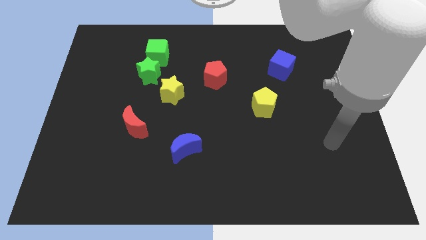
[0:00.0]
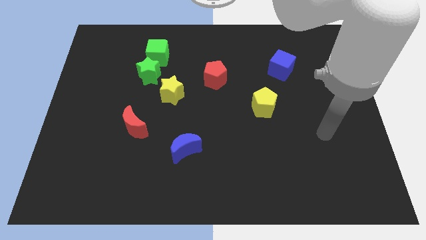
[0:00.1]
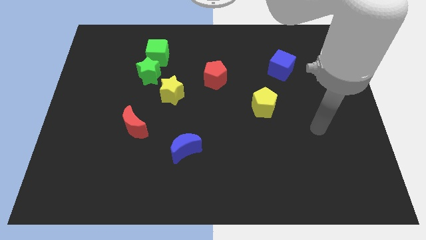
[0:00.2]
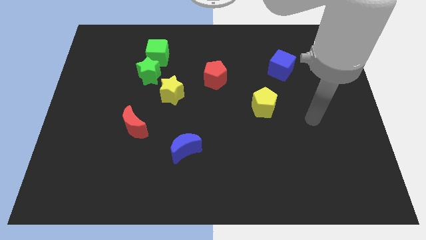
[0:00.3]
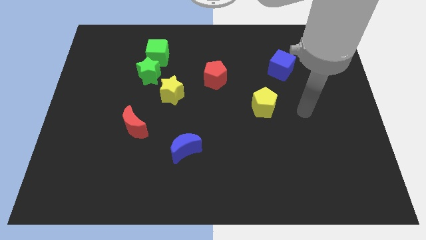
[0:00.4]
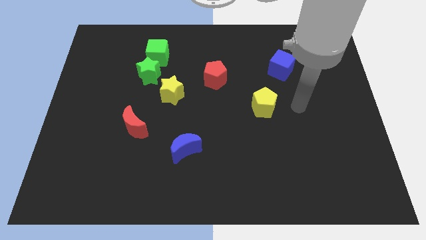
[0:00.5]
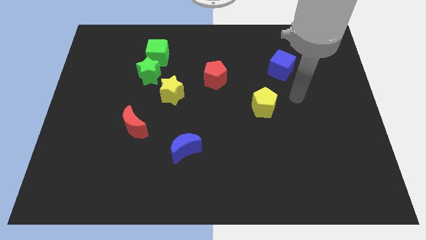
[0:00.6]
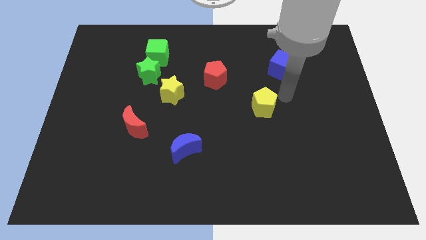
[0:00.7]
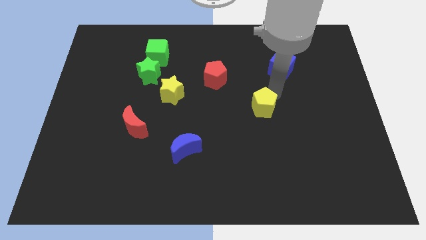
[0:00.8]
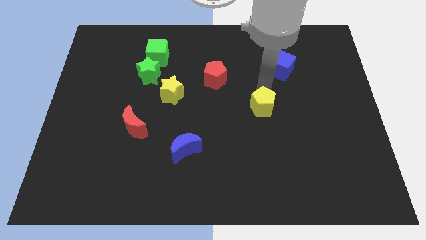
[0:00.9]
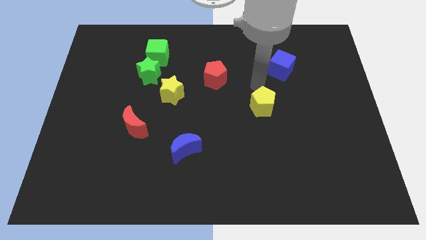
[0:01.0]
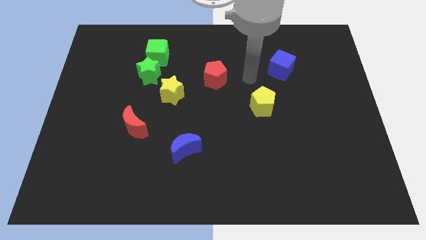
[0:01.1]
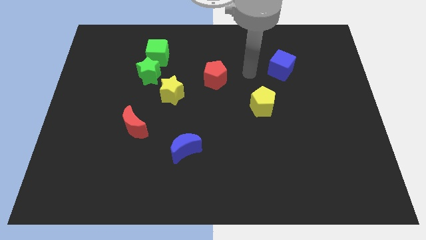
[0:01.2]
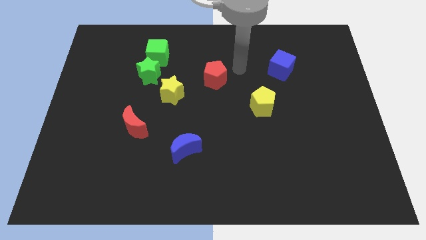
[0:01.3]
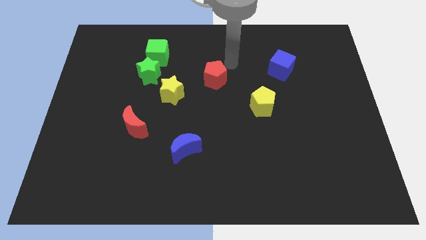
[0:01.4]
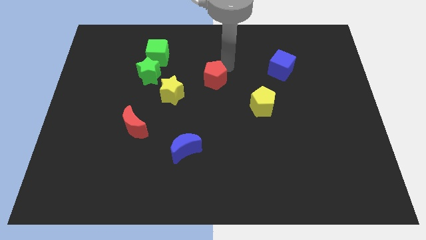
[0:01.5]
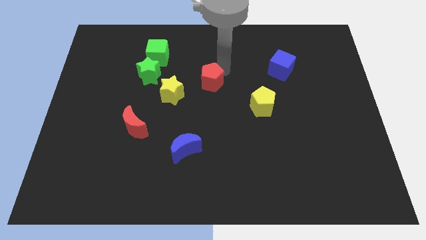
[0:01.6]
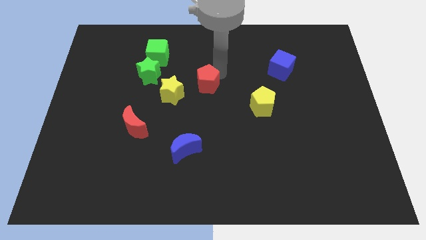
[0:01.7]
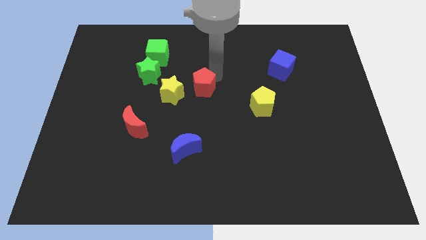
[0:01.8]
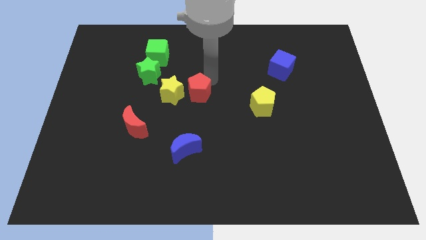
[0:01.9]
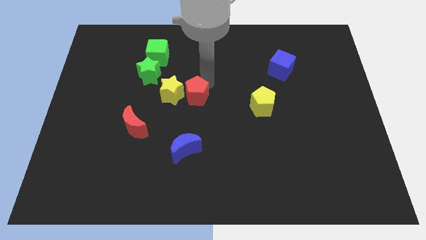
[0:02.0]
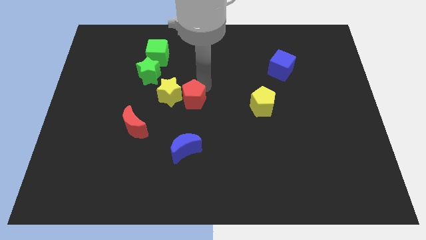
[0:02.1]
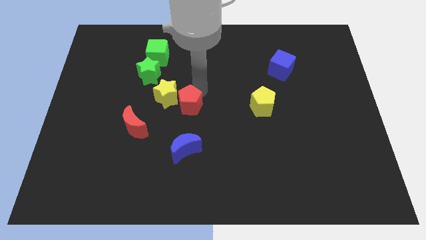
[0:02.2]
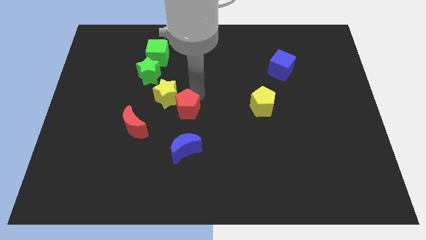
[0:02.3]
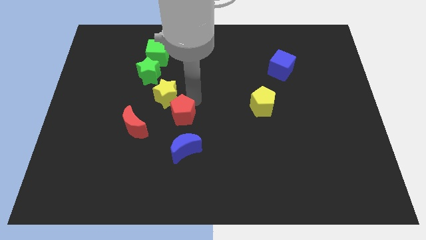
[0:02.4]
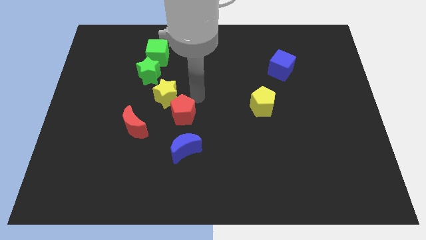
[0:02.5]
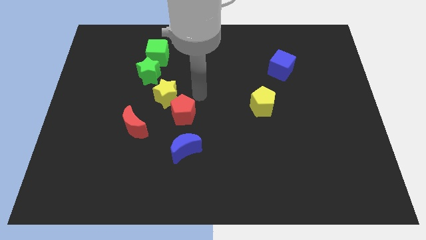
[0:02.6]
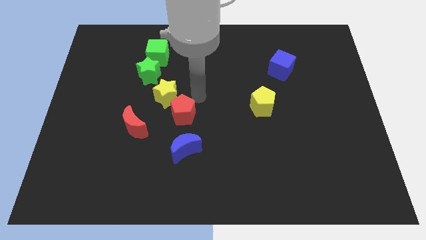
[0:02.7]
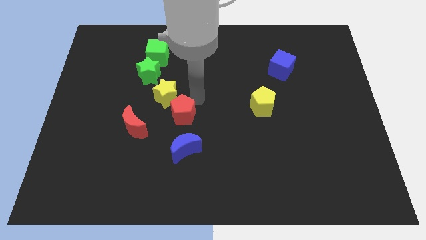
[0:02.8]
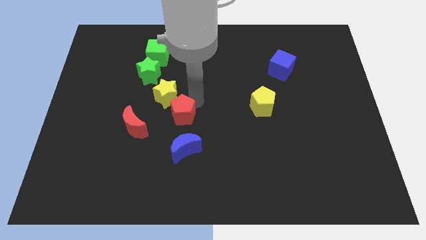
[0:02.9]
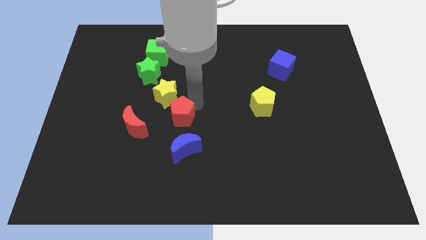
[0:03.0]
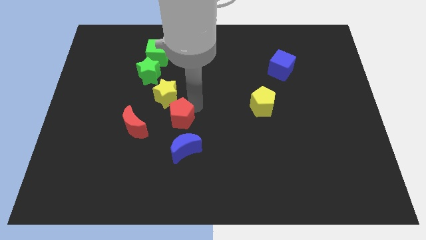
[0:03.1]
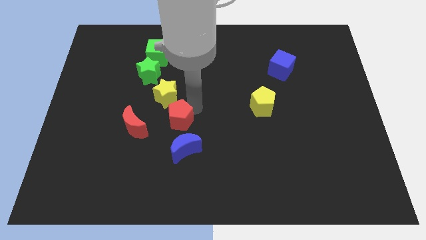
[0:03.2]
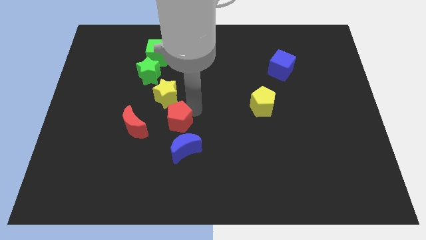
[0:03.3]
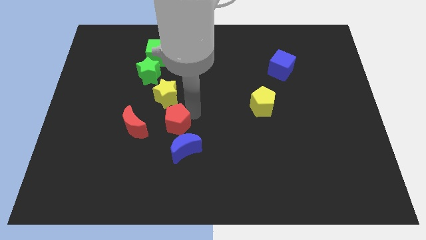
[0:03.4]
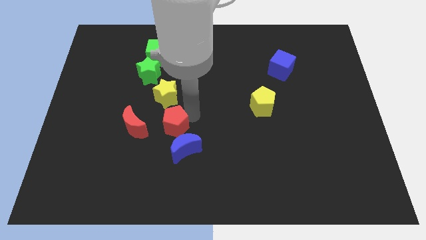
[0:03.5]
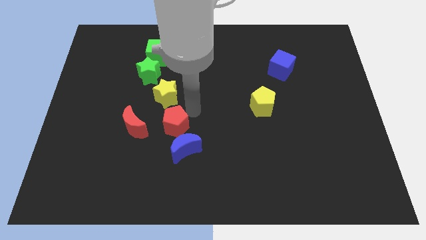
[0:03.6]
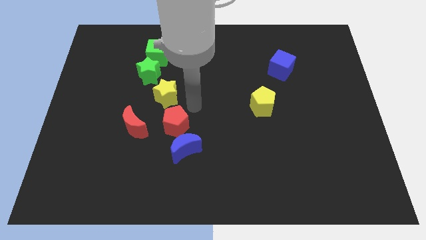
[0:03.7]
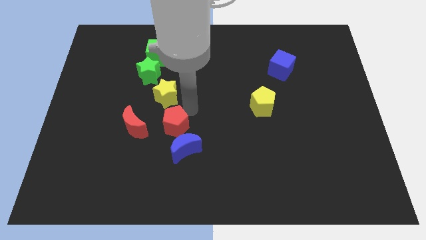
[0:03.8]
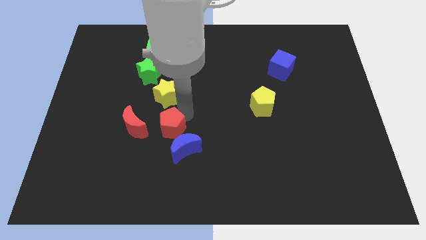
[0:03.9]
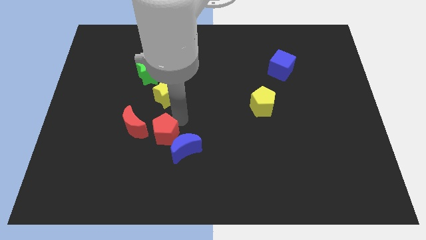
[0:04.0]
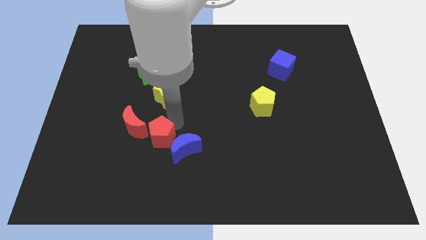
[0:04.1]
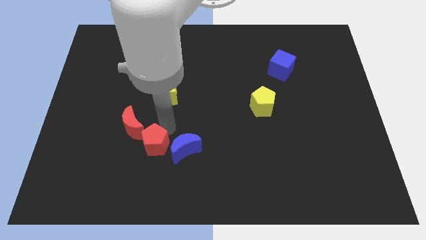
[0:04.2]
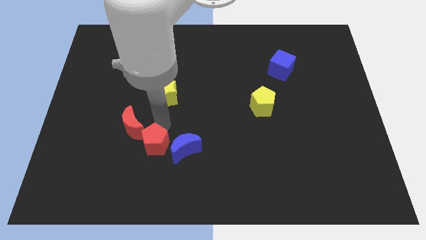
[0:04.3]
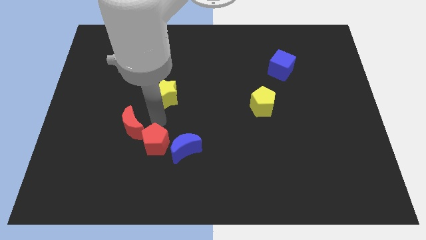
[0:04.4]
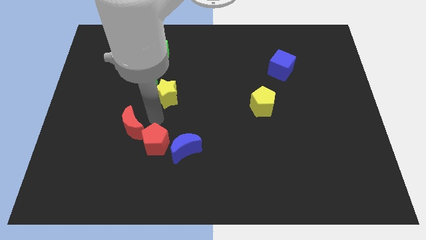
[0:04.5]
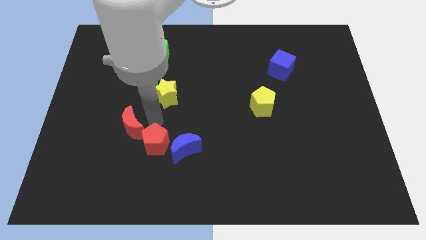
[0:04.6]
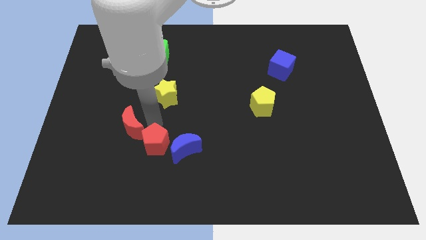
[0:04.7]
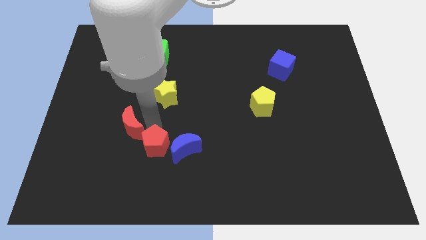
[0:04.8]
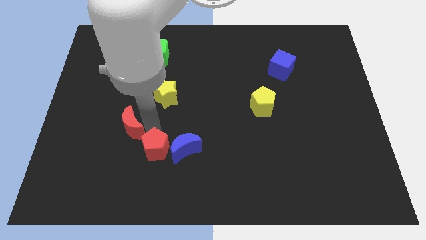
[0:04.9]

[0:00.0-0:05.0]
slide the red pentagon to the bottom left of the blue moon
